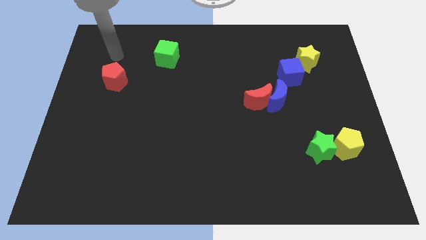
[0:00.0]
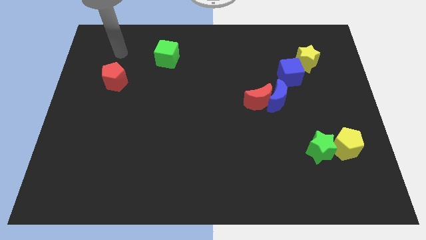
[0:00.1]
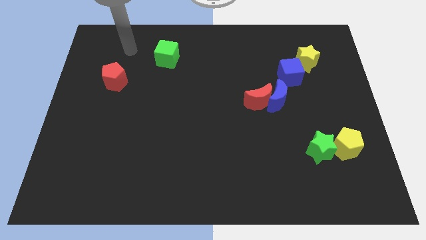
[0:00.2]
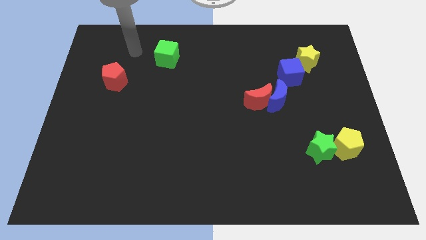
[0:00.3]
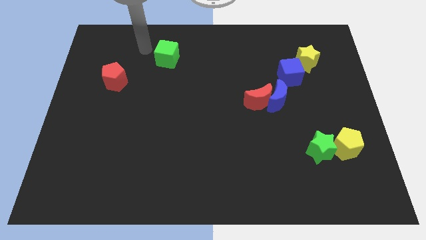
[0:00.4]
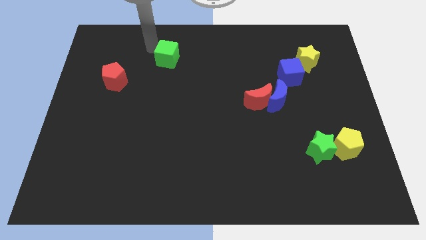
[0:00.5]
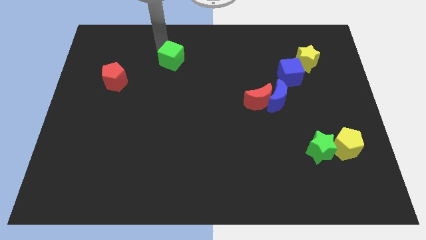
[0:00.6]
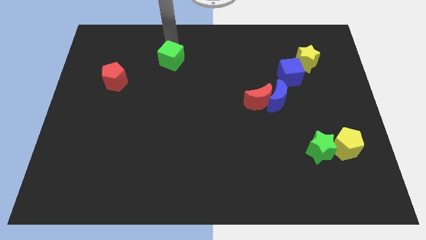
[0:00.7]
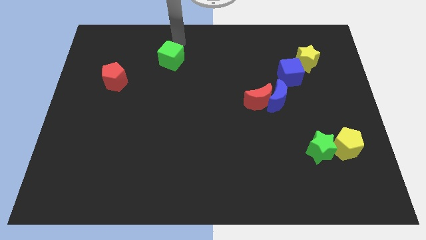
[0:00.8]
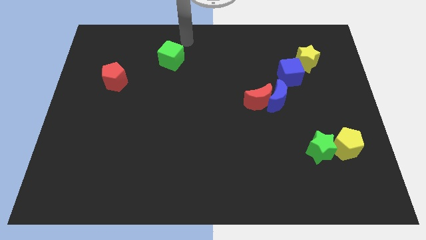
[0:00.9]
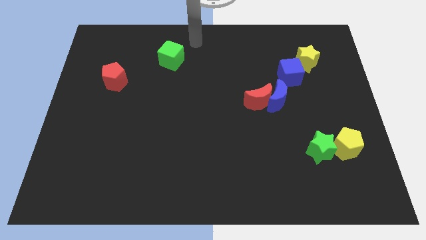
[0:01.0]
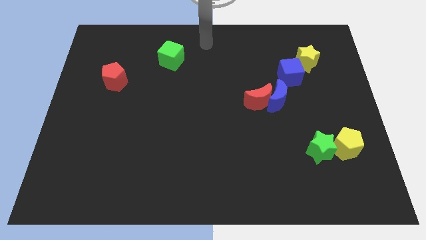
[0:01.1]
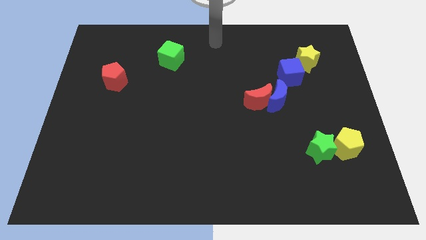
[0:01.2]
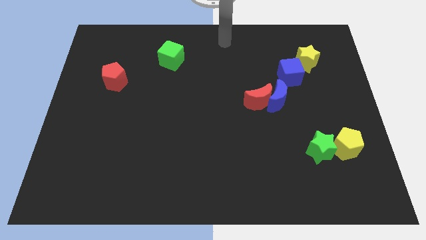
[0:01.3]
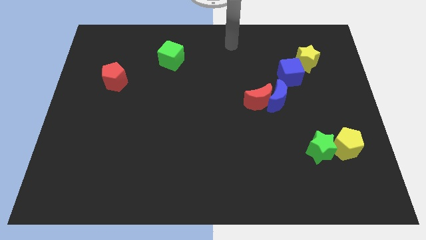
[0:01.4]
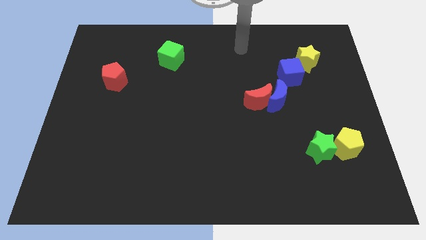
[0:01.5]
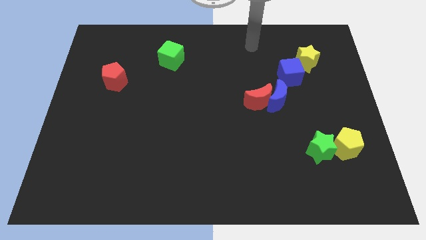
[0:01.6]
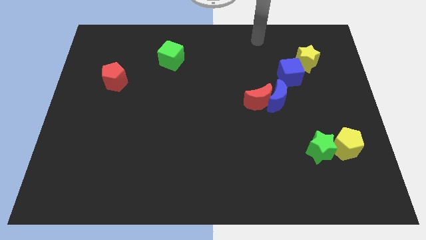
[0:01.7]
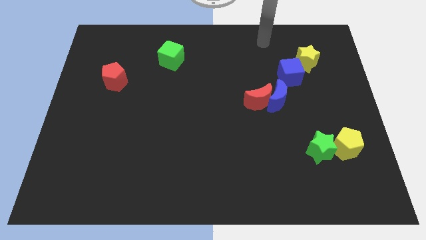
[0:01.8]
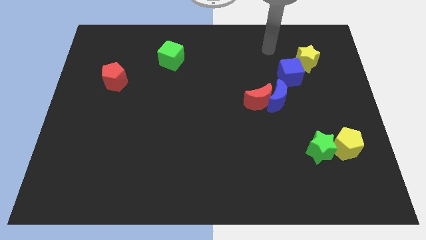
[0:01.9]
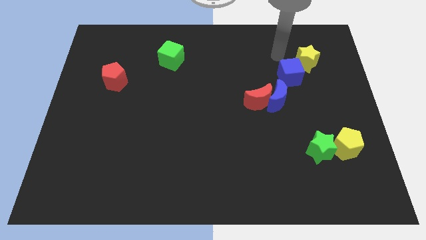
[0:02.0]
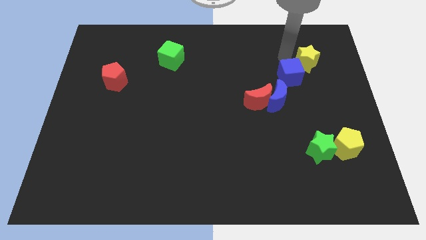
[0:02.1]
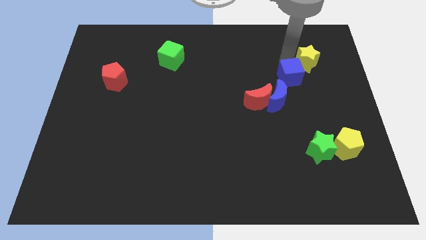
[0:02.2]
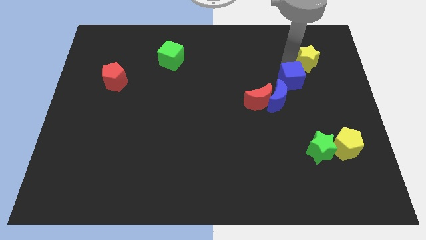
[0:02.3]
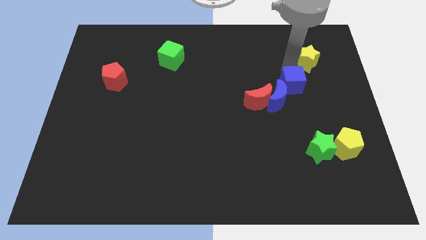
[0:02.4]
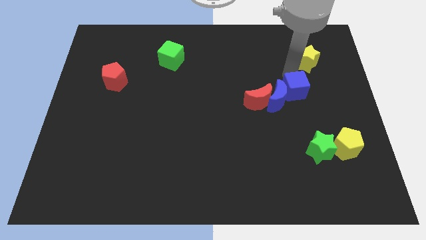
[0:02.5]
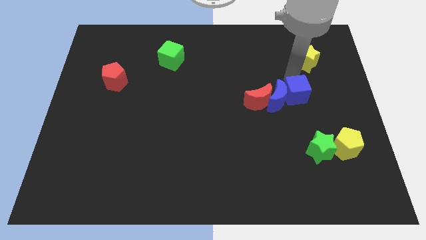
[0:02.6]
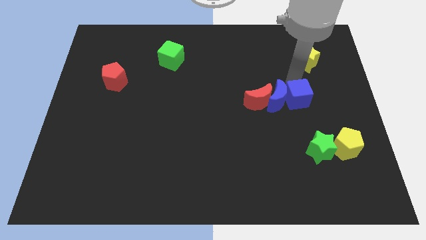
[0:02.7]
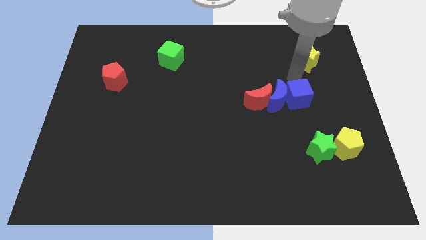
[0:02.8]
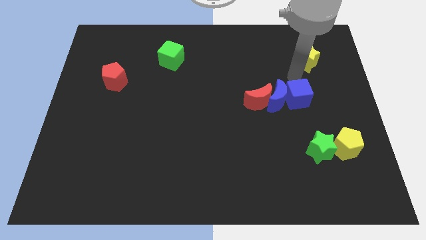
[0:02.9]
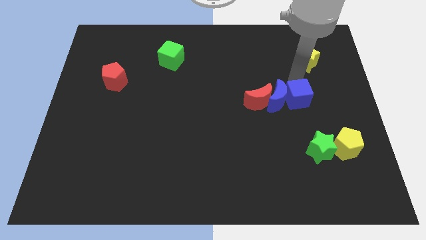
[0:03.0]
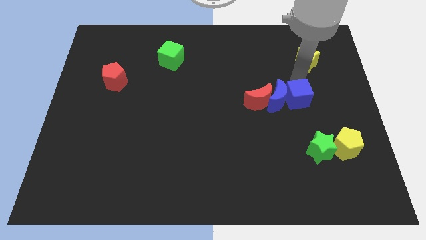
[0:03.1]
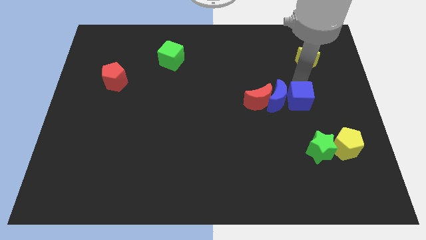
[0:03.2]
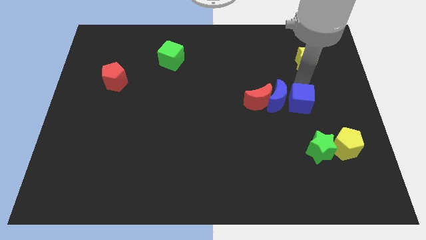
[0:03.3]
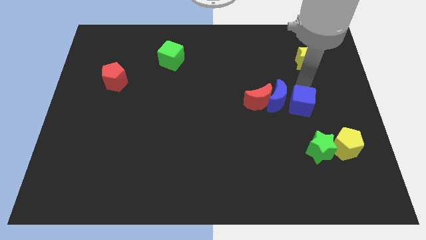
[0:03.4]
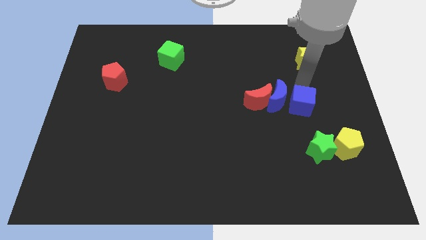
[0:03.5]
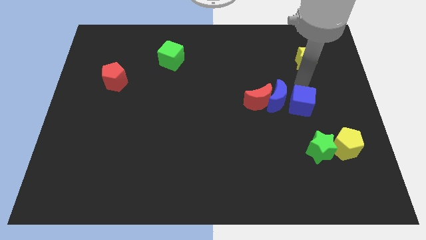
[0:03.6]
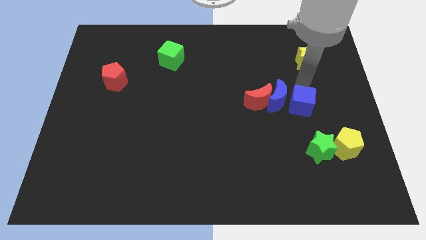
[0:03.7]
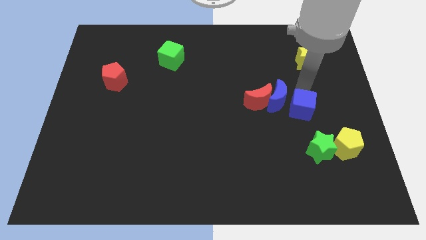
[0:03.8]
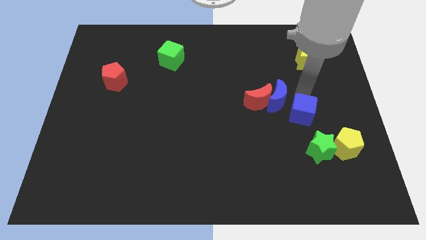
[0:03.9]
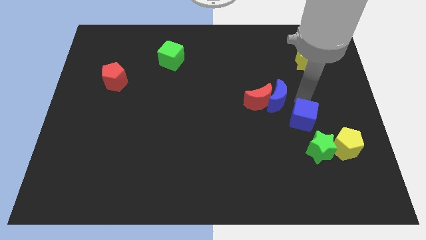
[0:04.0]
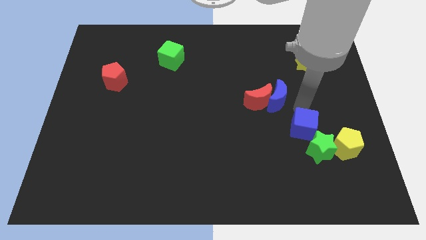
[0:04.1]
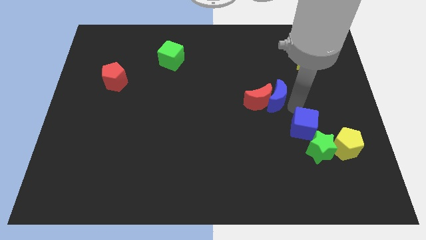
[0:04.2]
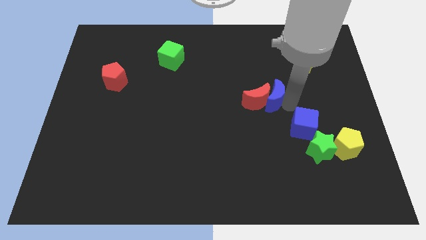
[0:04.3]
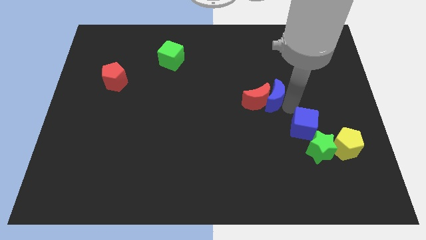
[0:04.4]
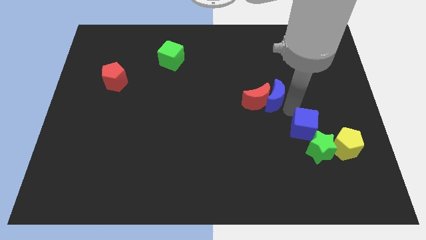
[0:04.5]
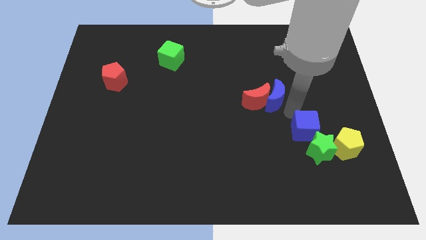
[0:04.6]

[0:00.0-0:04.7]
push the blue cube to the green star

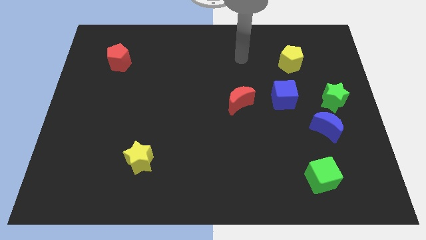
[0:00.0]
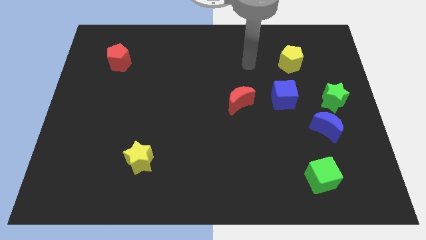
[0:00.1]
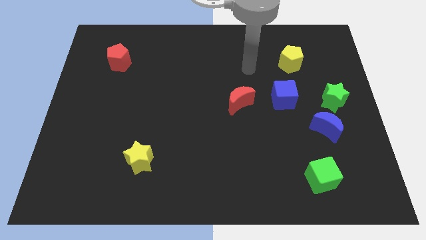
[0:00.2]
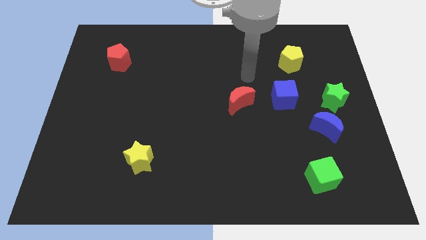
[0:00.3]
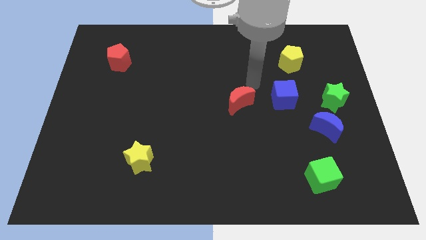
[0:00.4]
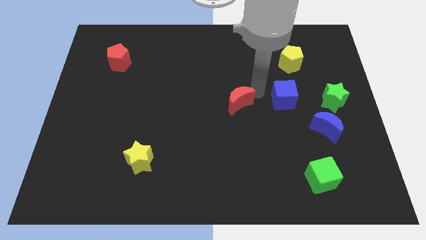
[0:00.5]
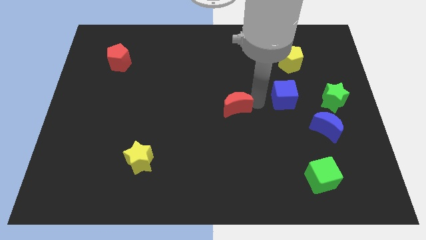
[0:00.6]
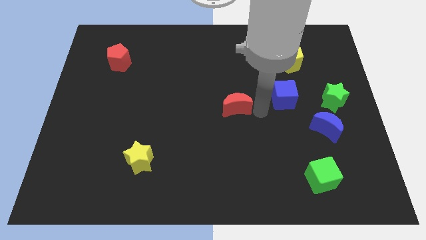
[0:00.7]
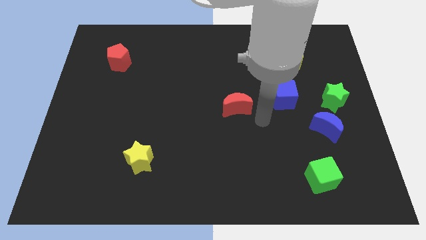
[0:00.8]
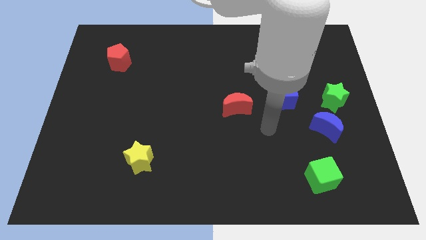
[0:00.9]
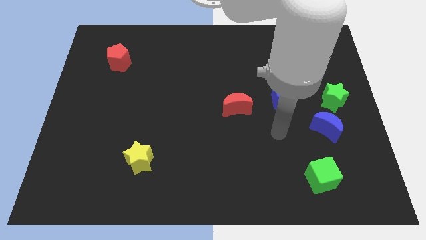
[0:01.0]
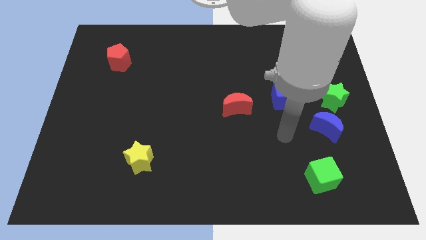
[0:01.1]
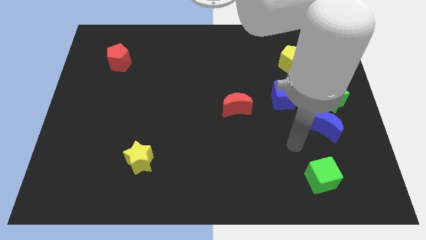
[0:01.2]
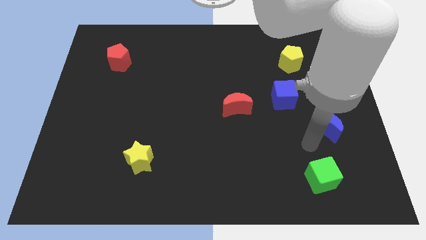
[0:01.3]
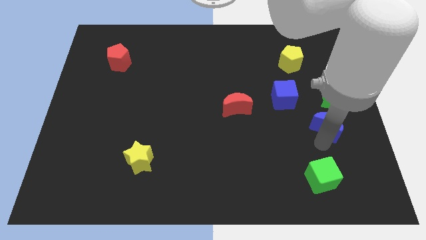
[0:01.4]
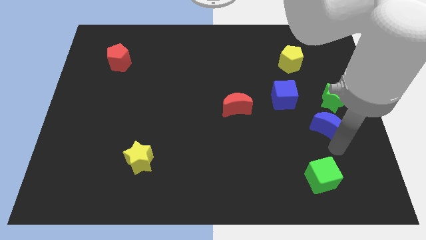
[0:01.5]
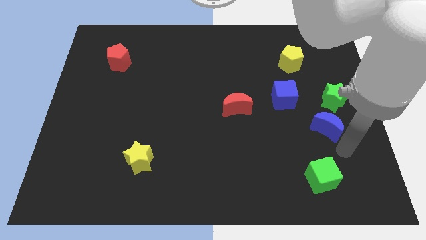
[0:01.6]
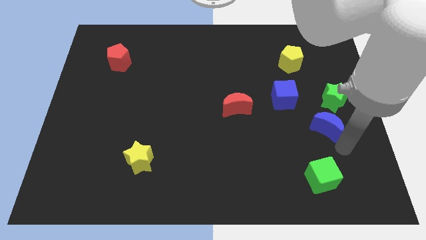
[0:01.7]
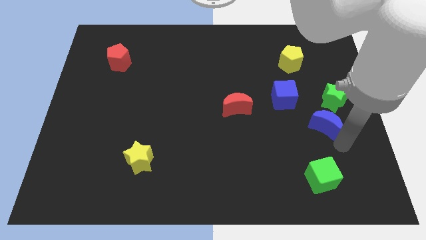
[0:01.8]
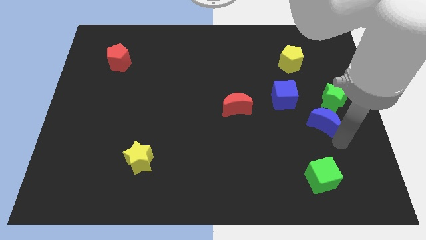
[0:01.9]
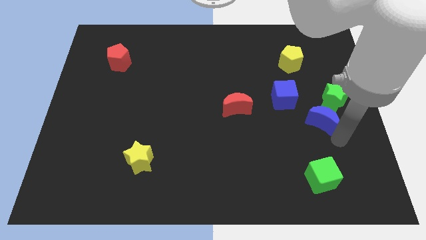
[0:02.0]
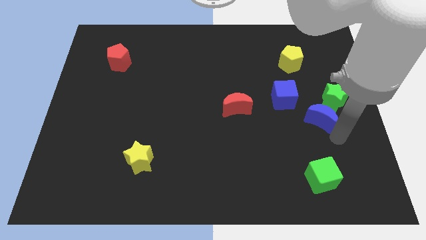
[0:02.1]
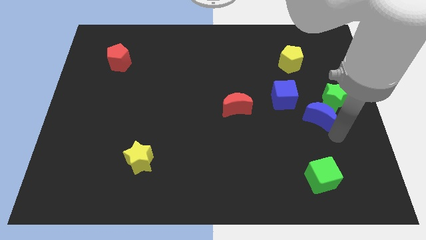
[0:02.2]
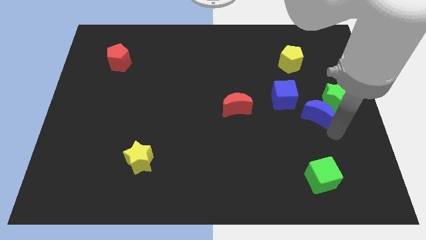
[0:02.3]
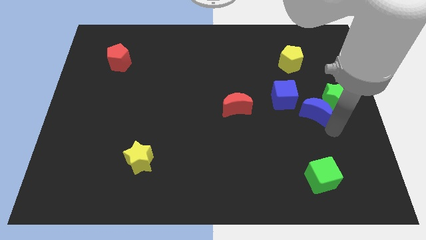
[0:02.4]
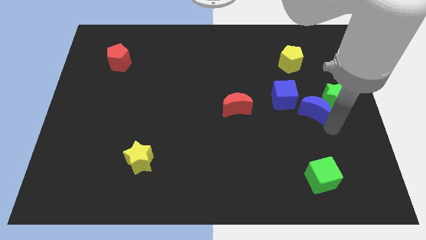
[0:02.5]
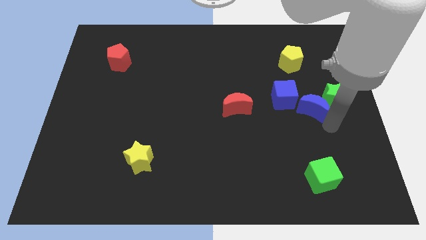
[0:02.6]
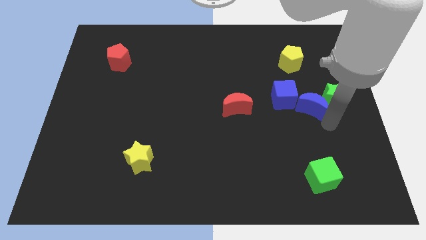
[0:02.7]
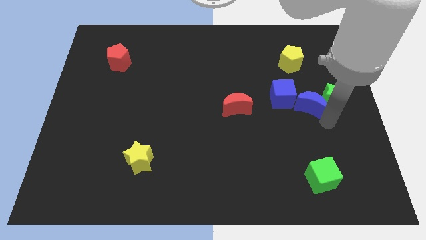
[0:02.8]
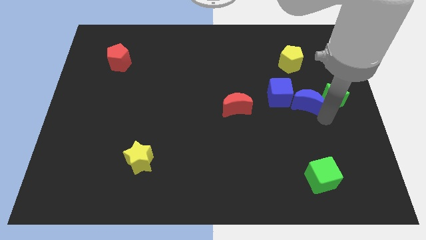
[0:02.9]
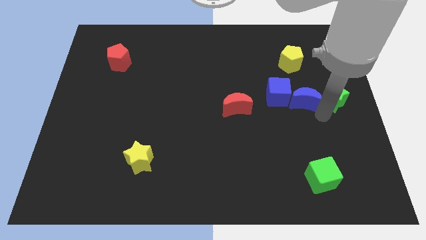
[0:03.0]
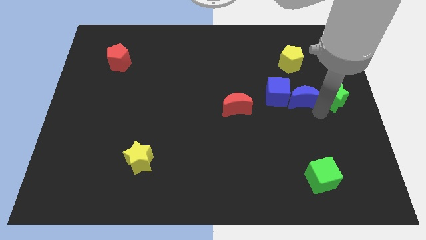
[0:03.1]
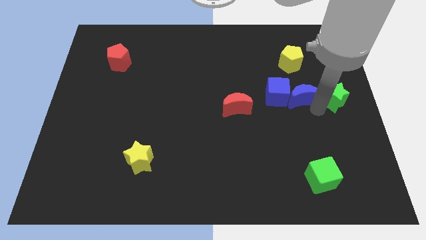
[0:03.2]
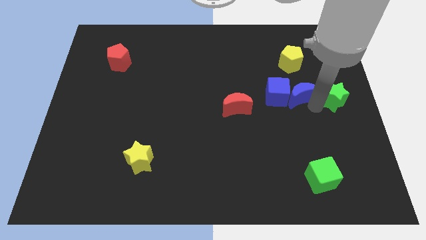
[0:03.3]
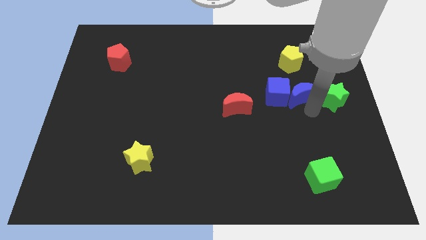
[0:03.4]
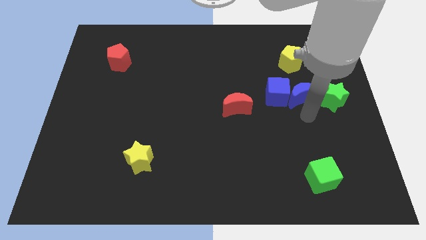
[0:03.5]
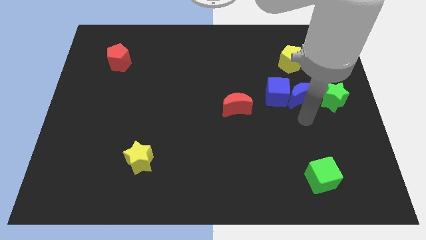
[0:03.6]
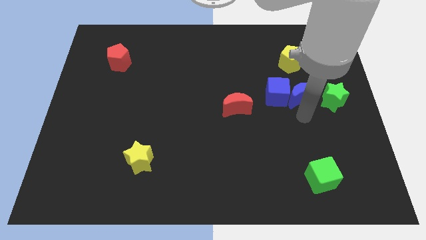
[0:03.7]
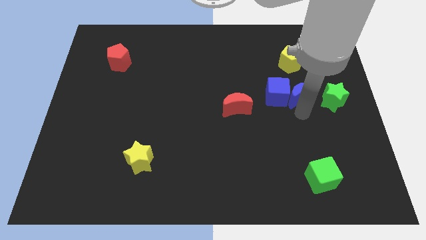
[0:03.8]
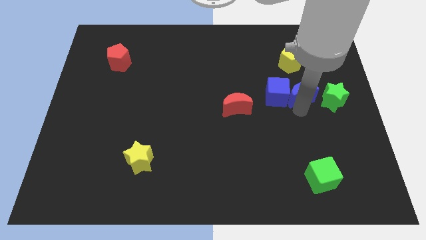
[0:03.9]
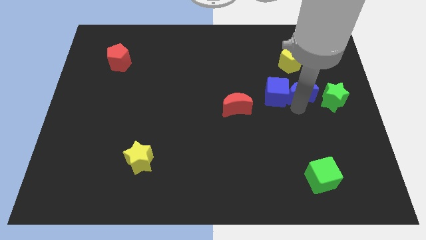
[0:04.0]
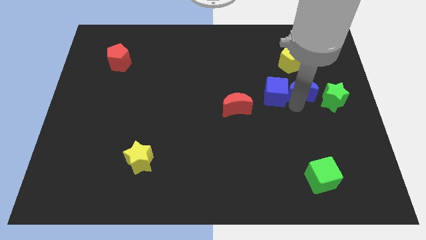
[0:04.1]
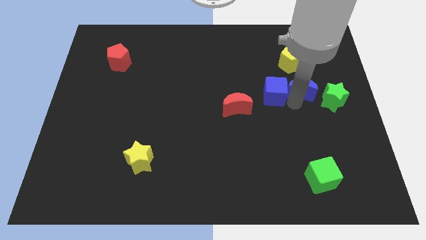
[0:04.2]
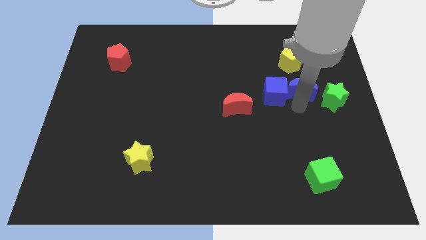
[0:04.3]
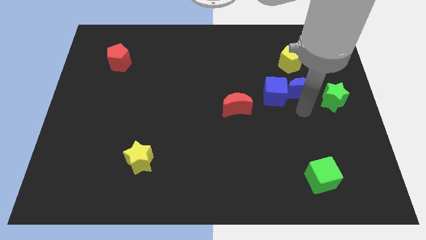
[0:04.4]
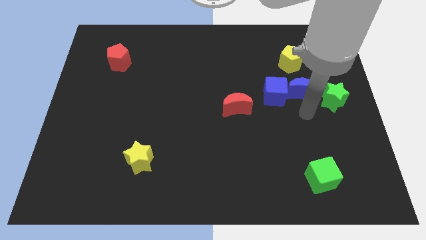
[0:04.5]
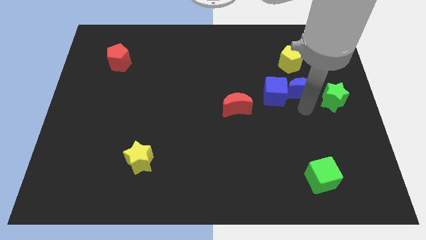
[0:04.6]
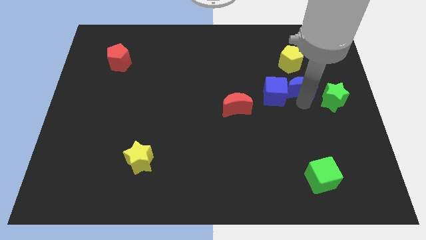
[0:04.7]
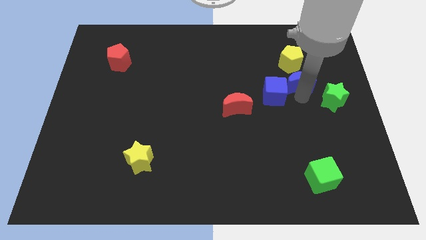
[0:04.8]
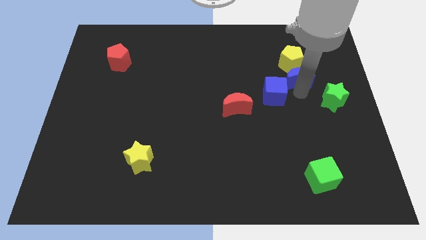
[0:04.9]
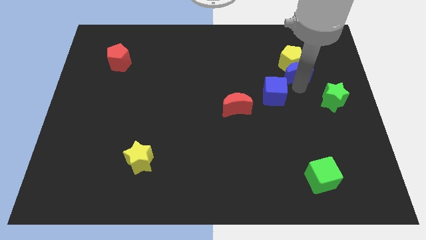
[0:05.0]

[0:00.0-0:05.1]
put the blue moon close to the yellow pentagon
